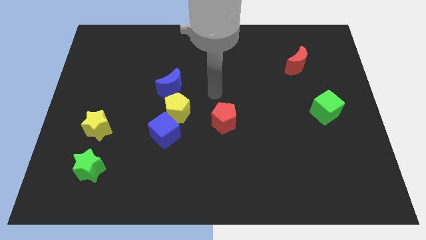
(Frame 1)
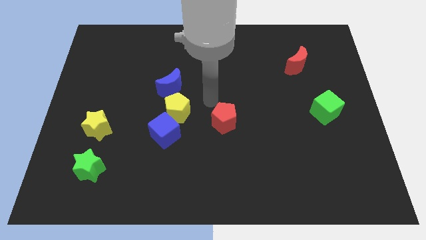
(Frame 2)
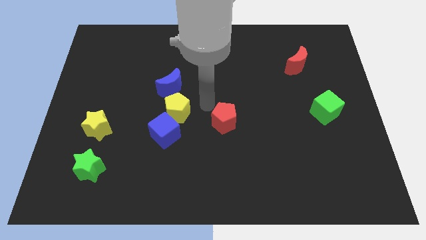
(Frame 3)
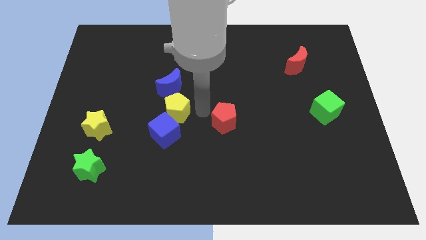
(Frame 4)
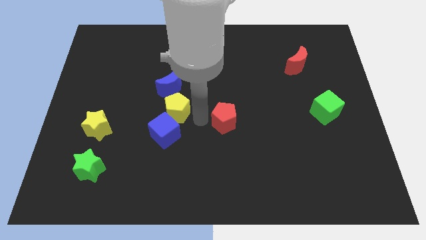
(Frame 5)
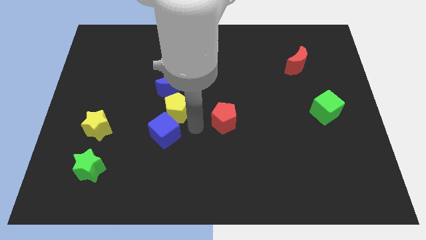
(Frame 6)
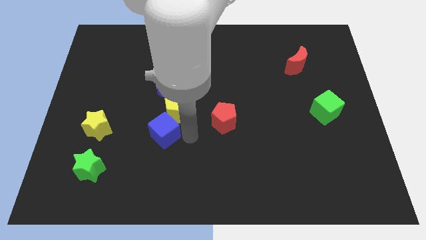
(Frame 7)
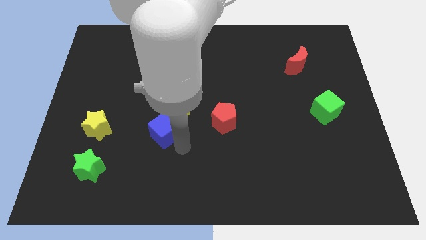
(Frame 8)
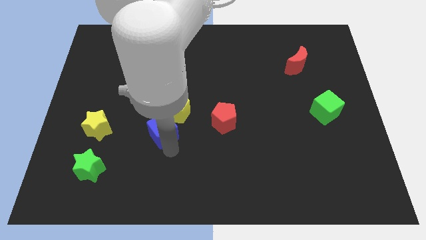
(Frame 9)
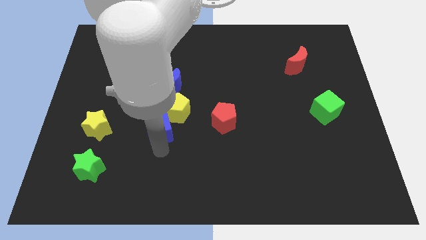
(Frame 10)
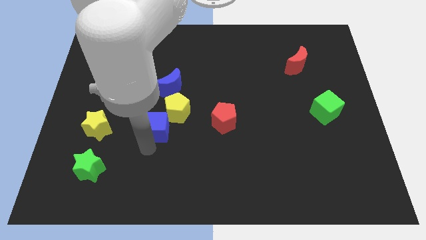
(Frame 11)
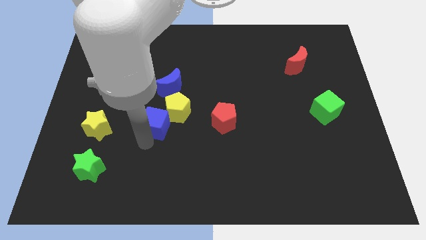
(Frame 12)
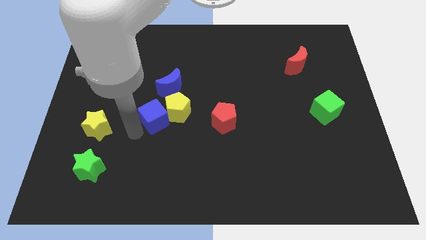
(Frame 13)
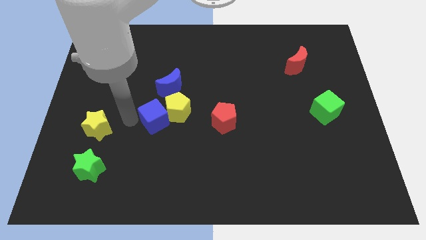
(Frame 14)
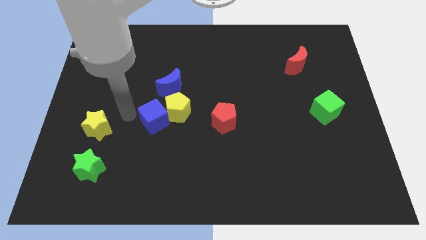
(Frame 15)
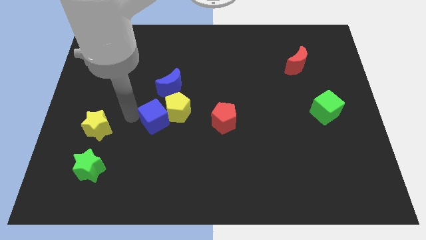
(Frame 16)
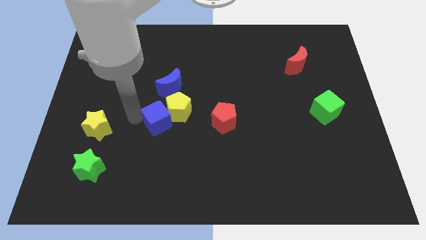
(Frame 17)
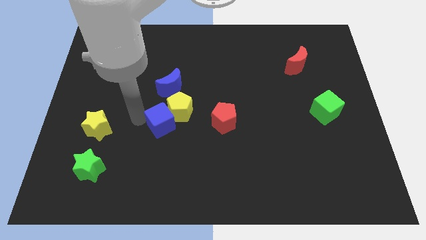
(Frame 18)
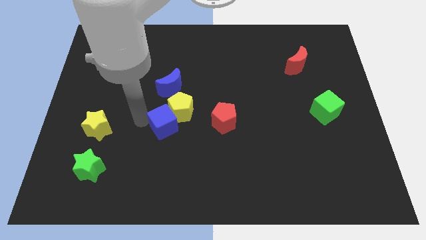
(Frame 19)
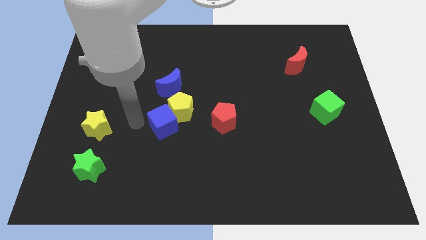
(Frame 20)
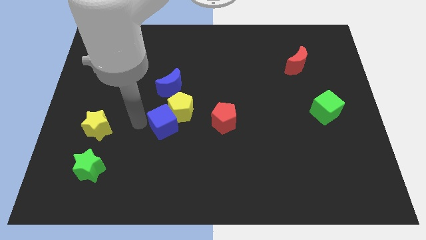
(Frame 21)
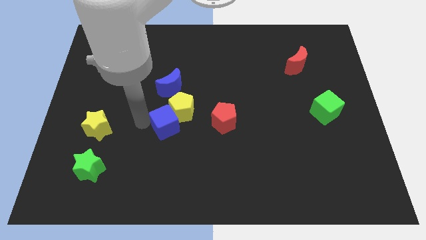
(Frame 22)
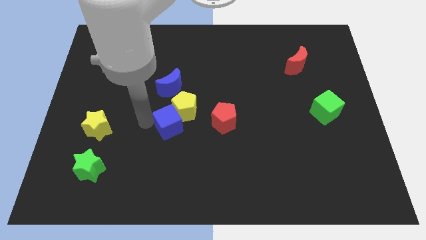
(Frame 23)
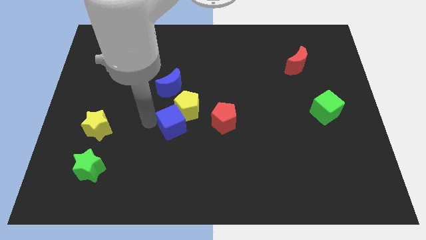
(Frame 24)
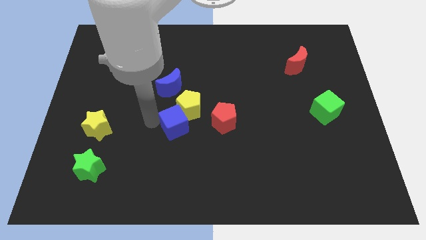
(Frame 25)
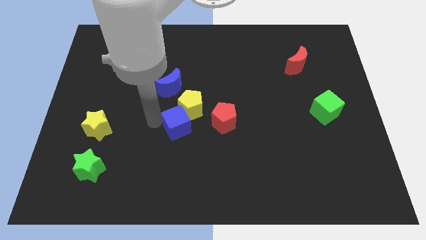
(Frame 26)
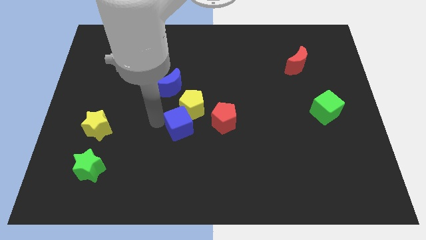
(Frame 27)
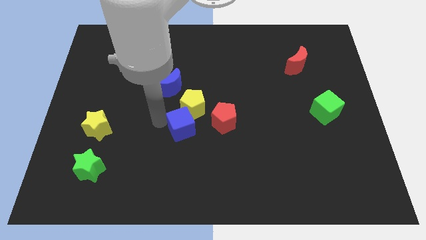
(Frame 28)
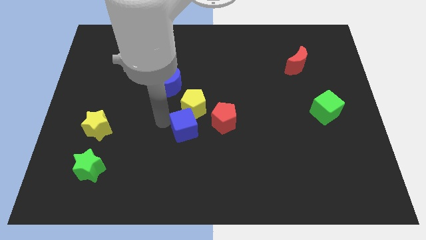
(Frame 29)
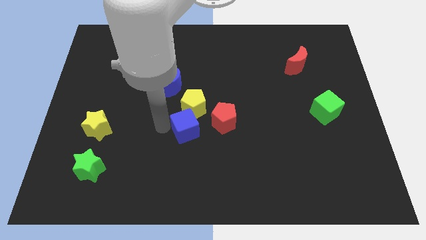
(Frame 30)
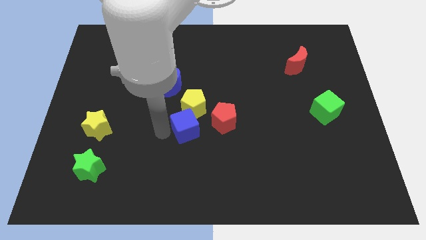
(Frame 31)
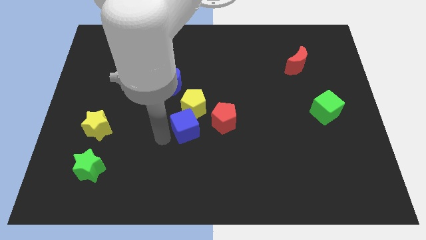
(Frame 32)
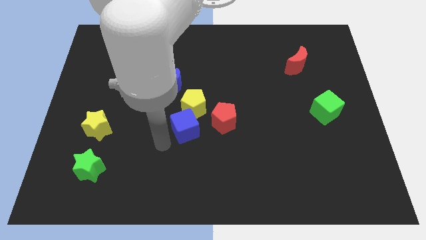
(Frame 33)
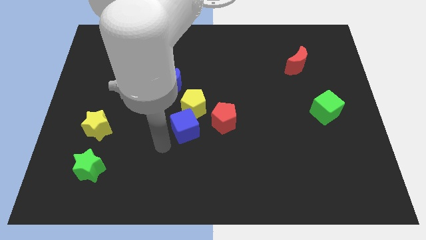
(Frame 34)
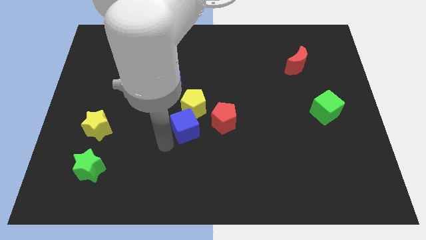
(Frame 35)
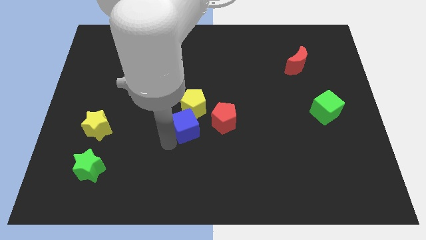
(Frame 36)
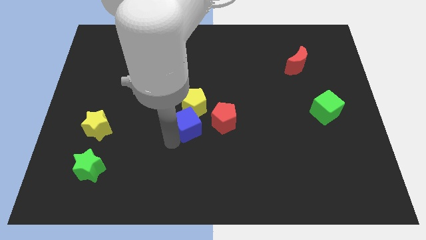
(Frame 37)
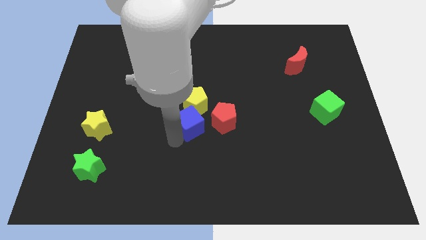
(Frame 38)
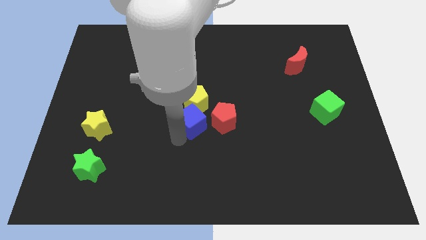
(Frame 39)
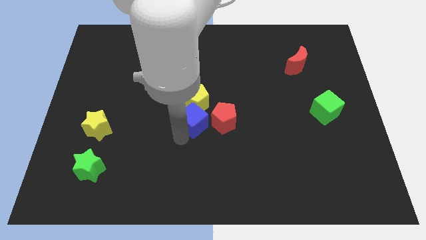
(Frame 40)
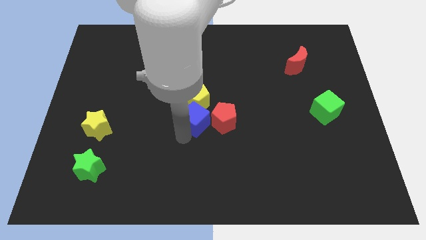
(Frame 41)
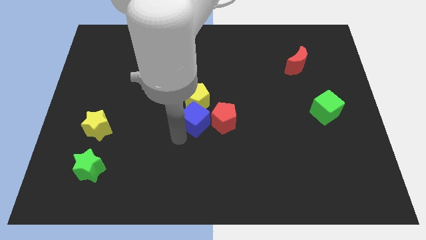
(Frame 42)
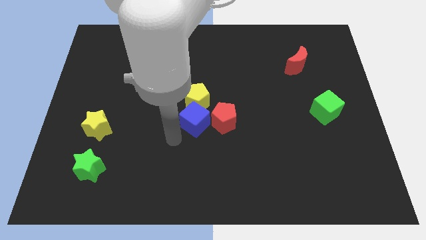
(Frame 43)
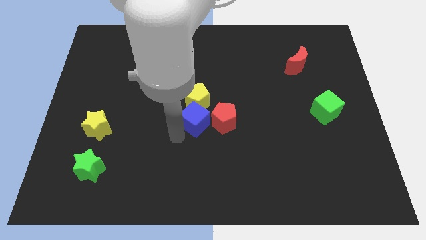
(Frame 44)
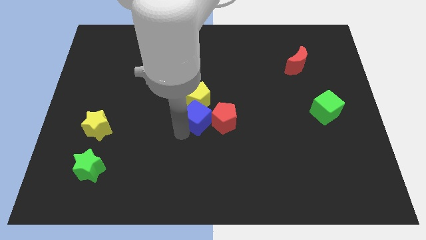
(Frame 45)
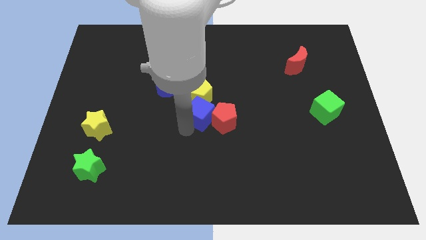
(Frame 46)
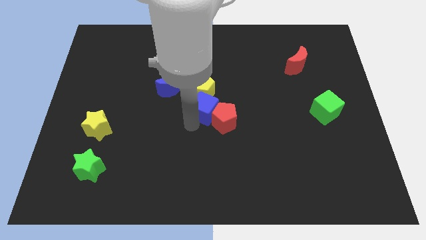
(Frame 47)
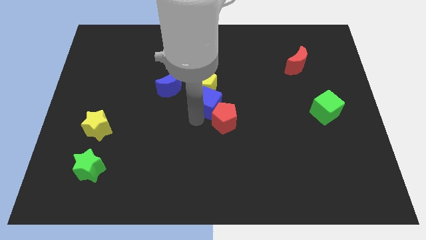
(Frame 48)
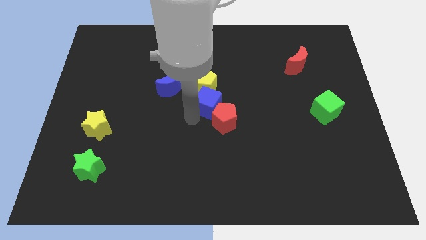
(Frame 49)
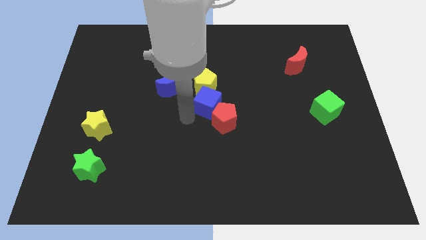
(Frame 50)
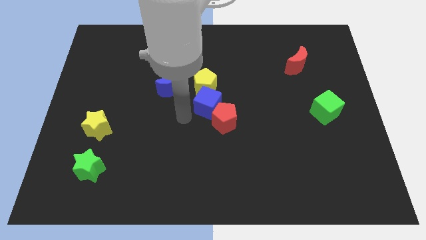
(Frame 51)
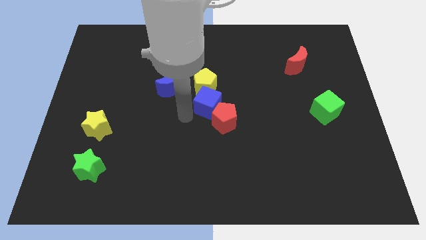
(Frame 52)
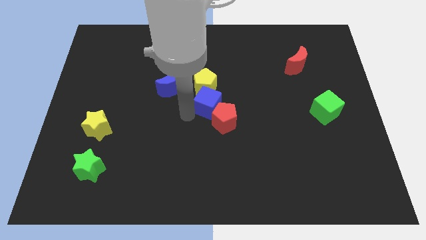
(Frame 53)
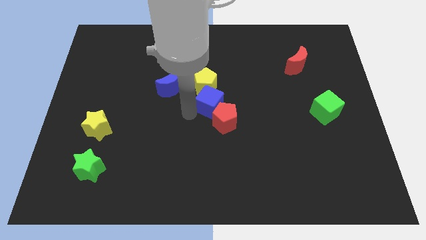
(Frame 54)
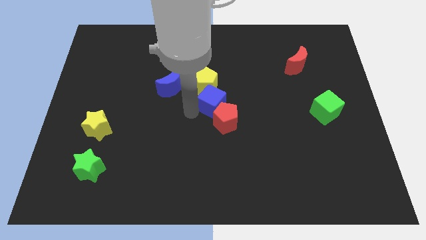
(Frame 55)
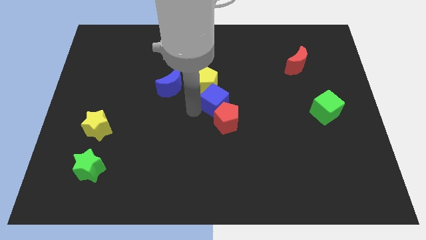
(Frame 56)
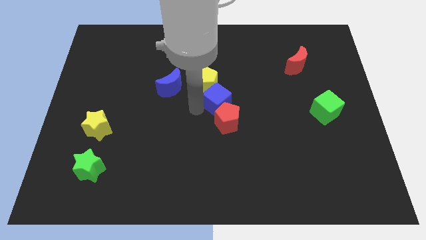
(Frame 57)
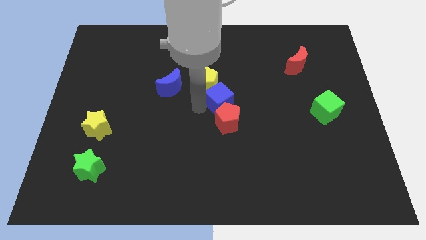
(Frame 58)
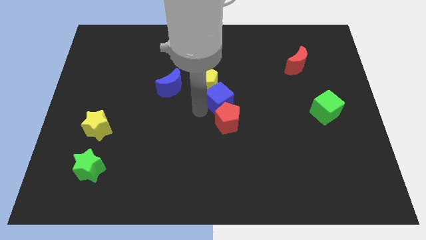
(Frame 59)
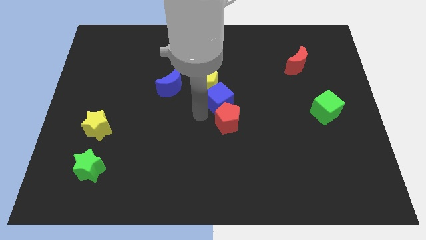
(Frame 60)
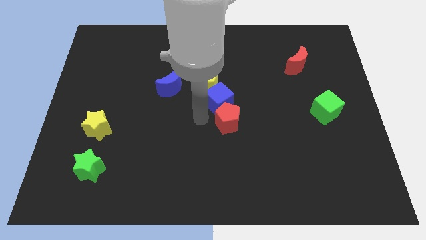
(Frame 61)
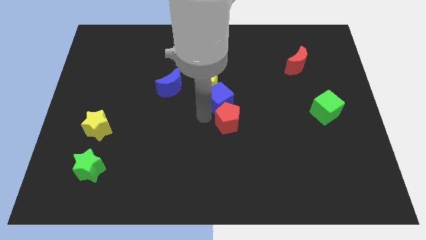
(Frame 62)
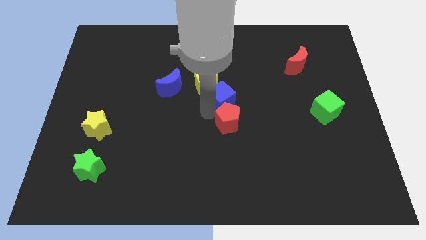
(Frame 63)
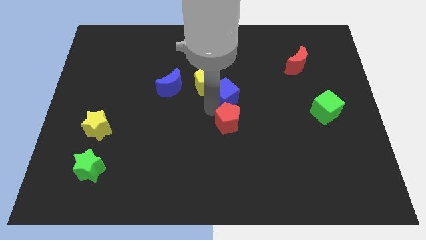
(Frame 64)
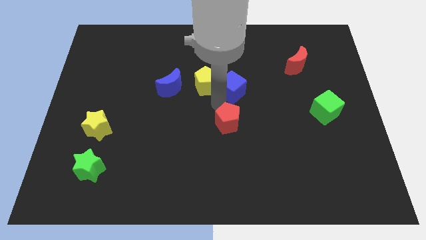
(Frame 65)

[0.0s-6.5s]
push the blue cube upwards and to the right diagonally

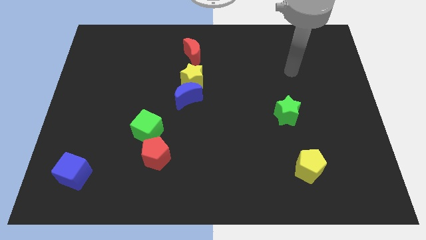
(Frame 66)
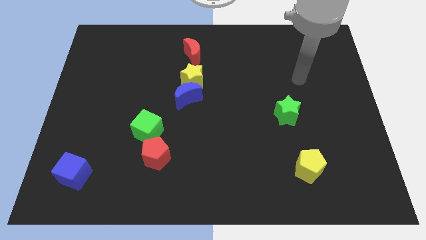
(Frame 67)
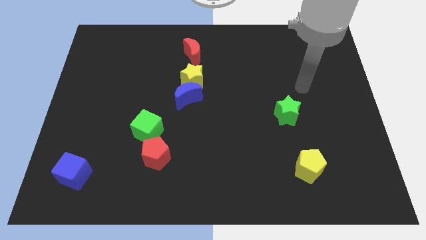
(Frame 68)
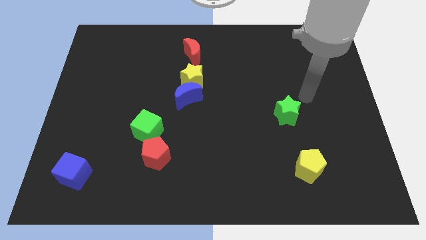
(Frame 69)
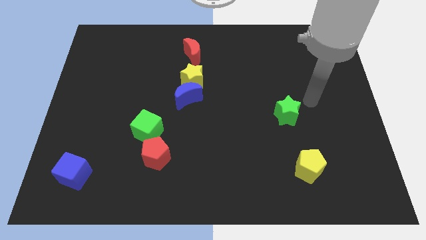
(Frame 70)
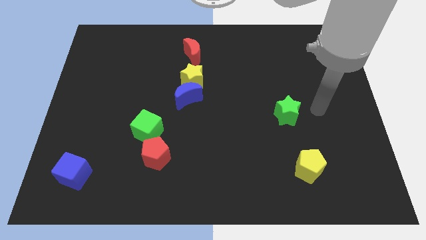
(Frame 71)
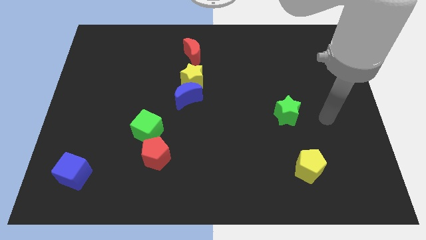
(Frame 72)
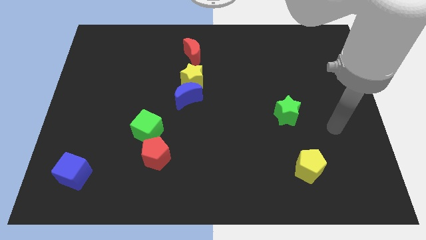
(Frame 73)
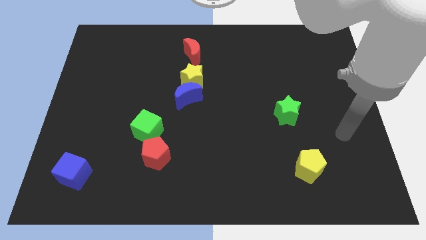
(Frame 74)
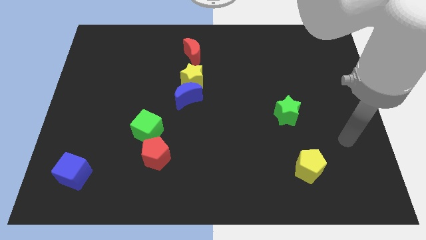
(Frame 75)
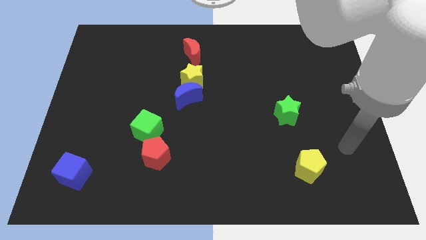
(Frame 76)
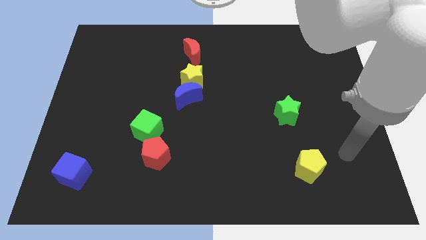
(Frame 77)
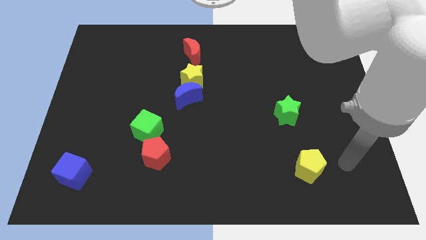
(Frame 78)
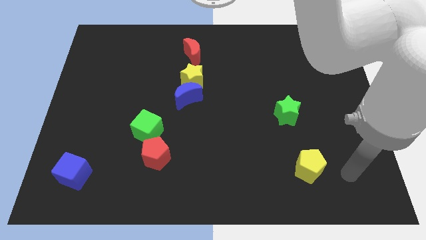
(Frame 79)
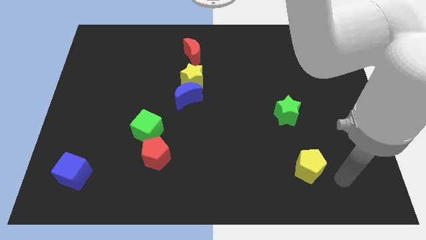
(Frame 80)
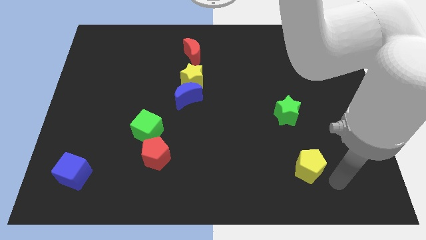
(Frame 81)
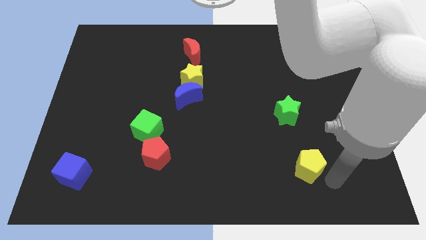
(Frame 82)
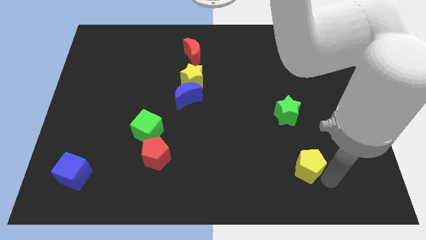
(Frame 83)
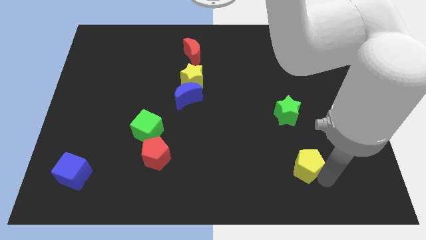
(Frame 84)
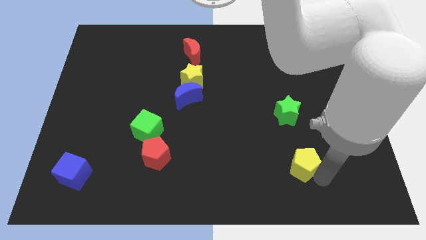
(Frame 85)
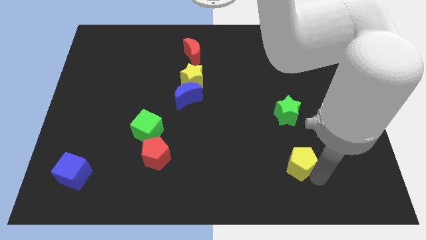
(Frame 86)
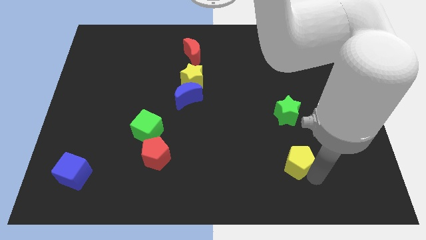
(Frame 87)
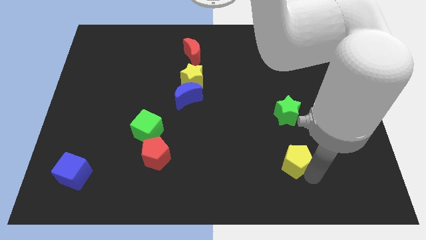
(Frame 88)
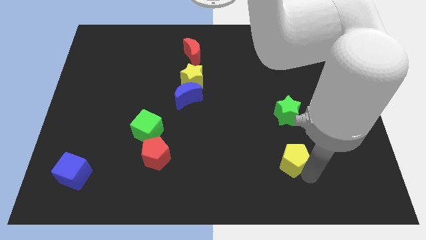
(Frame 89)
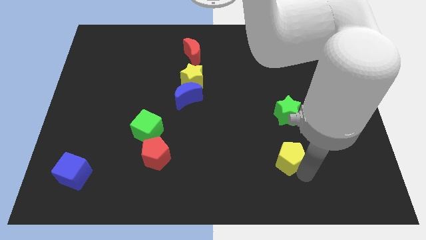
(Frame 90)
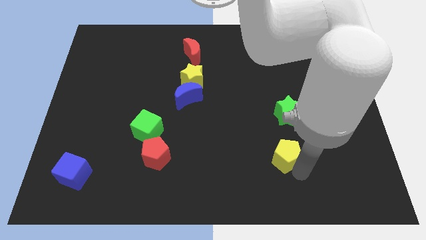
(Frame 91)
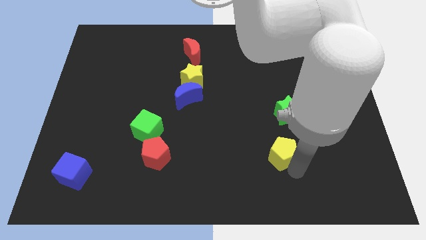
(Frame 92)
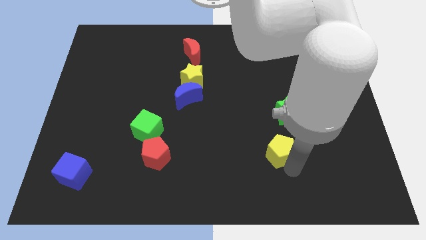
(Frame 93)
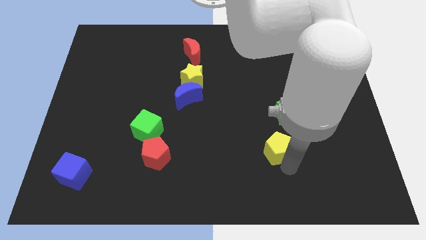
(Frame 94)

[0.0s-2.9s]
move the yellow pentagon diagonally upwards and left a little bit
